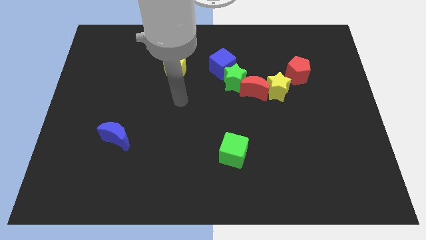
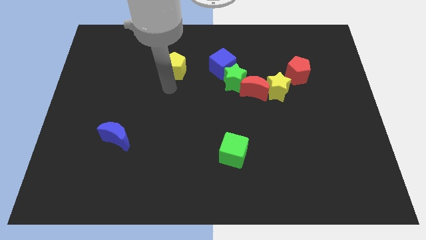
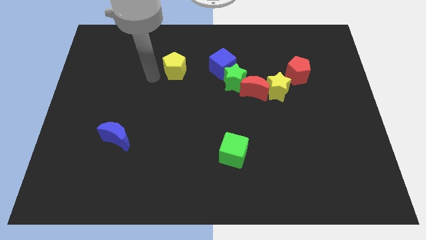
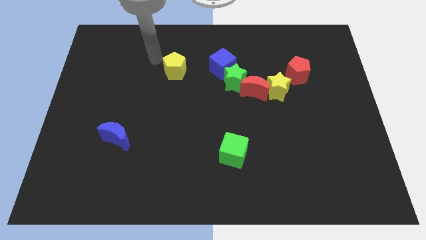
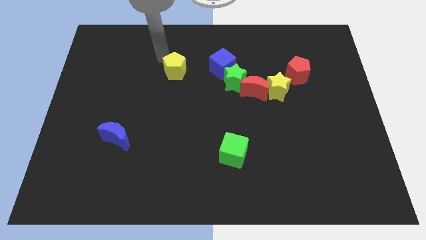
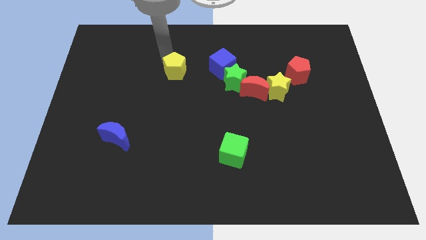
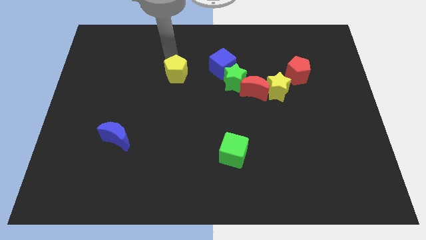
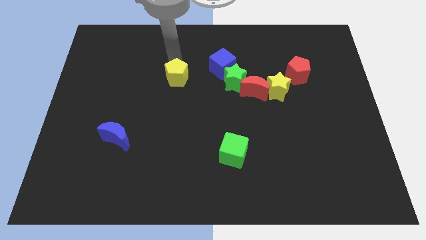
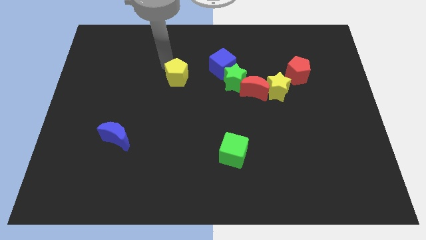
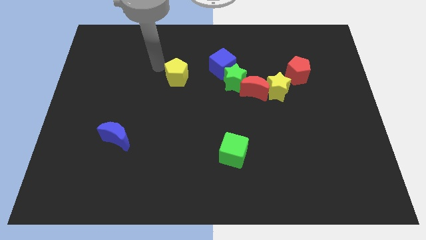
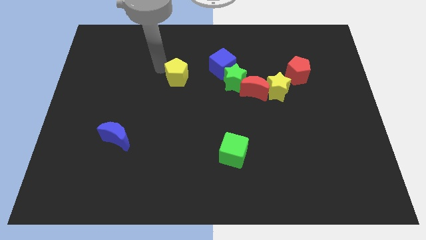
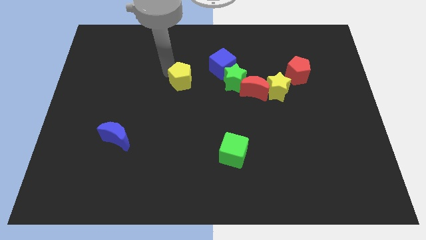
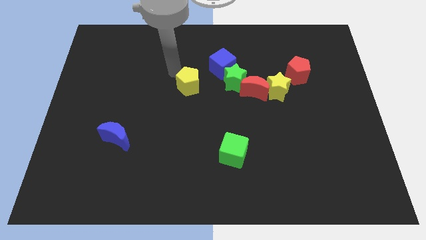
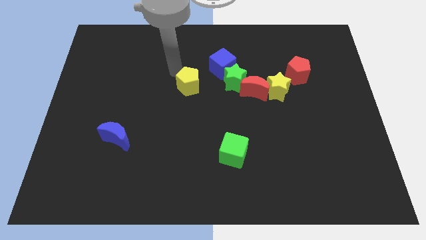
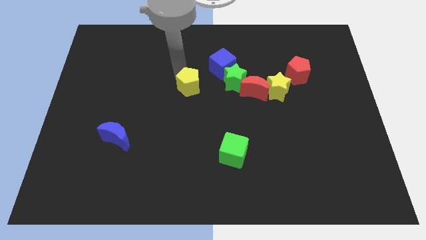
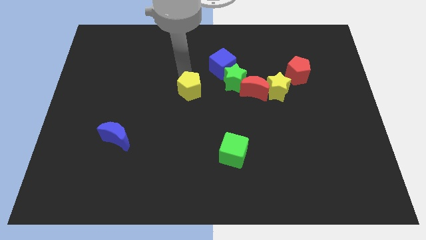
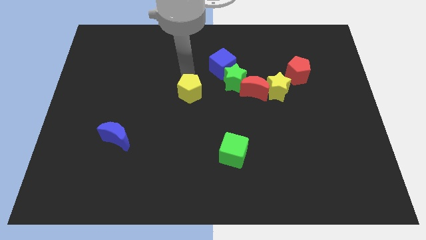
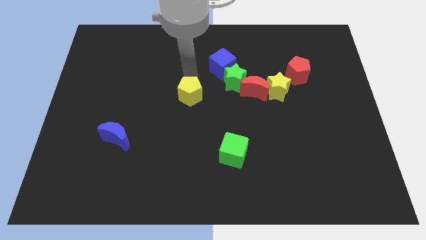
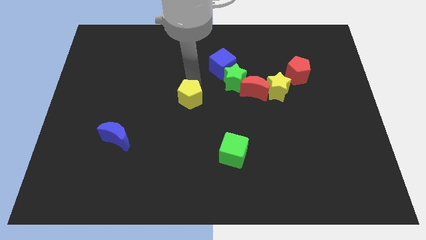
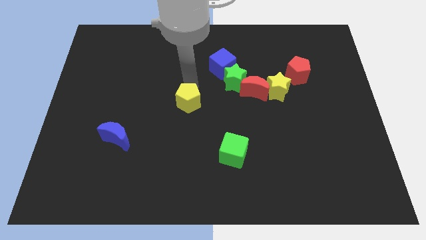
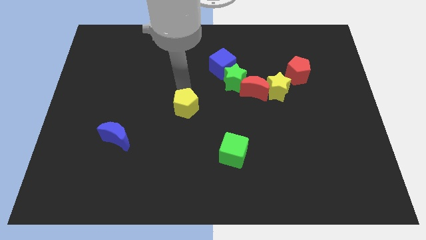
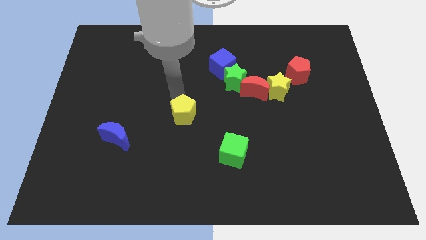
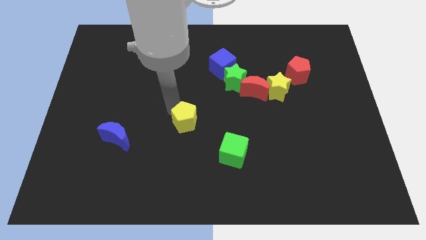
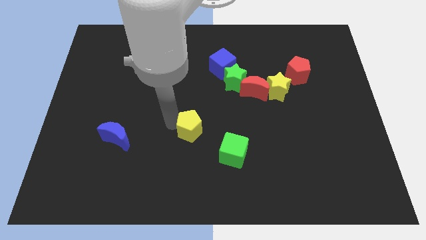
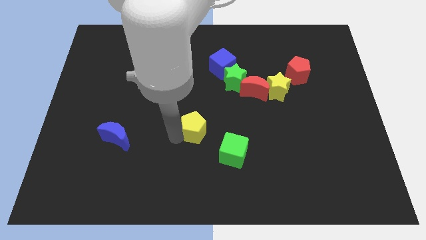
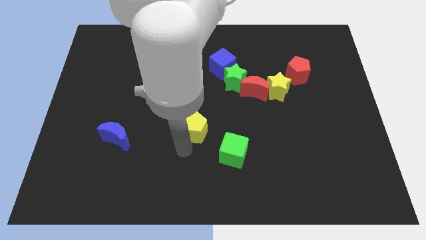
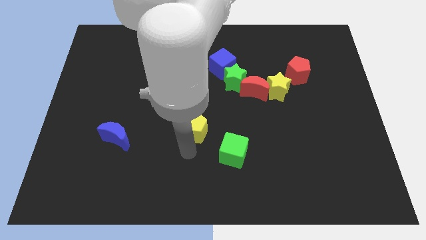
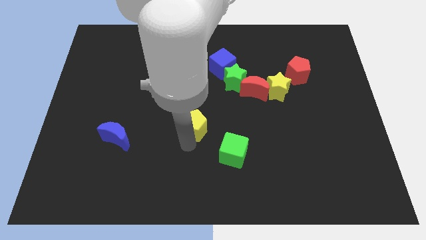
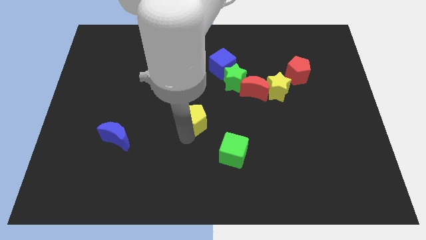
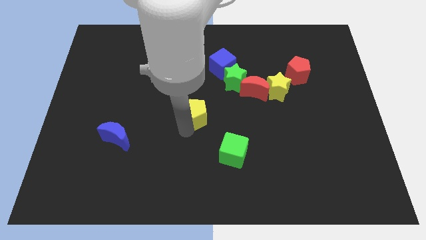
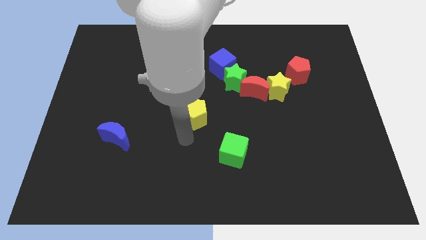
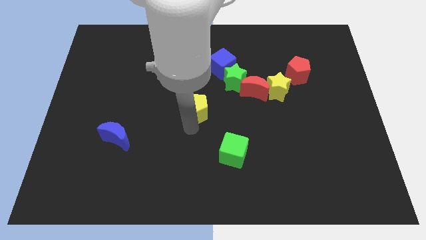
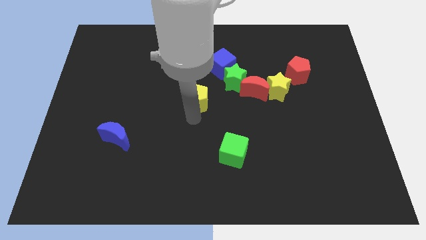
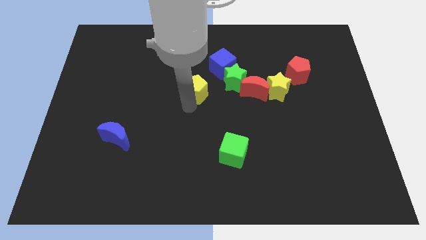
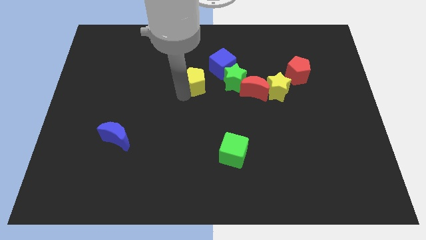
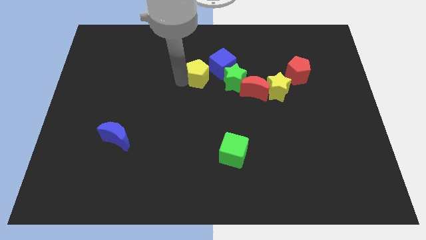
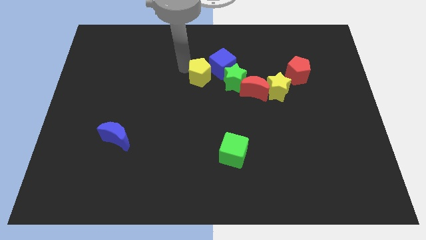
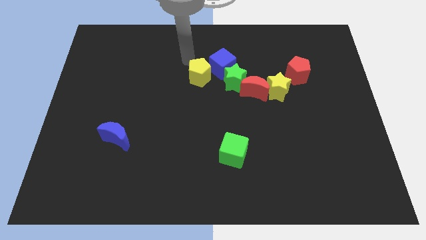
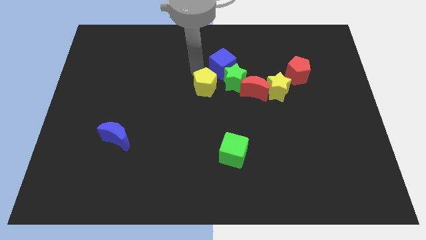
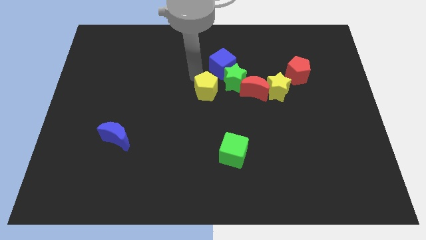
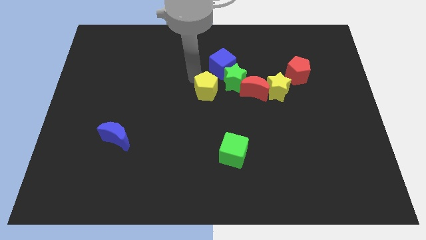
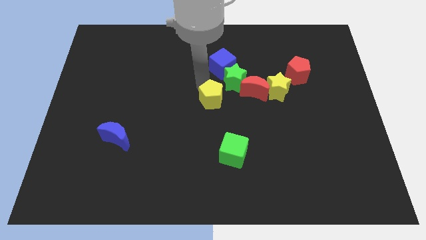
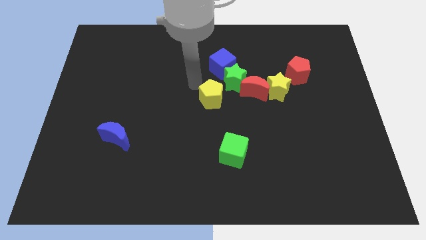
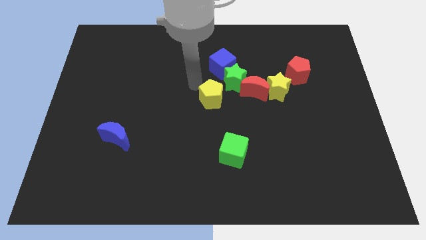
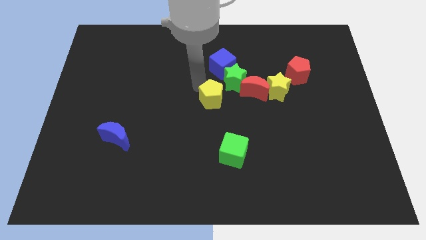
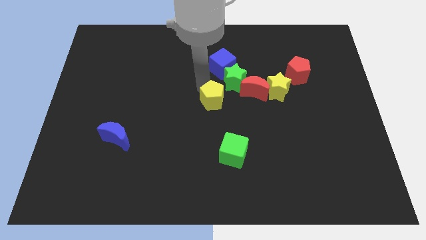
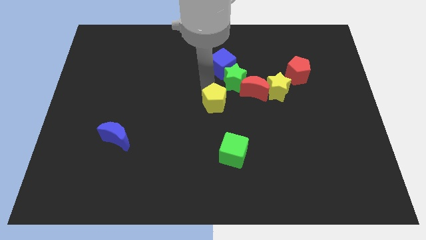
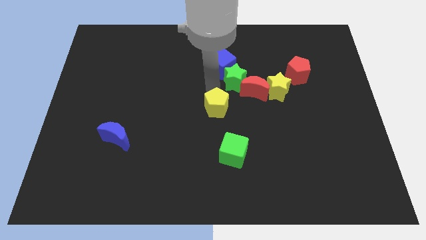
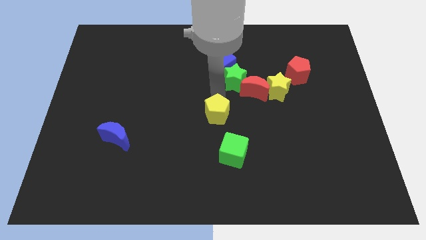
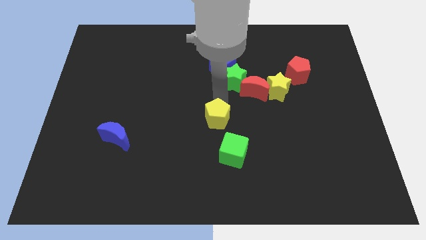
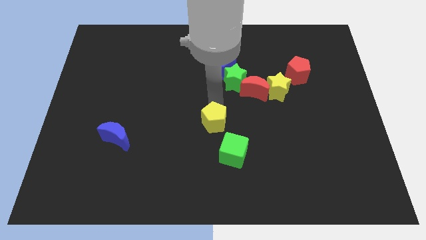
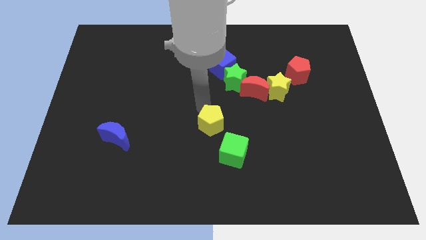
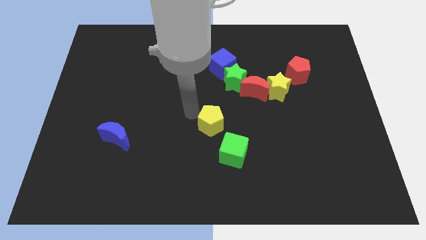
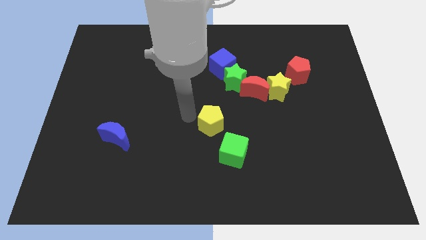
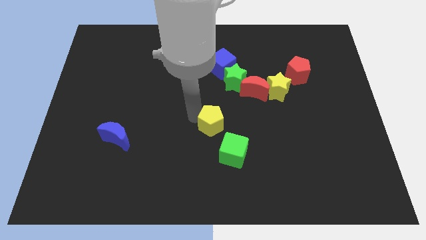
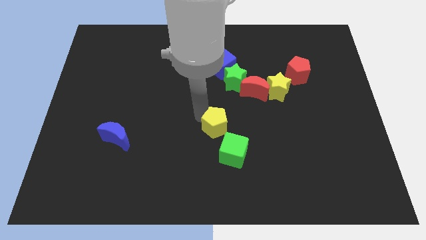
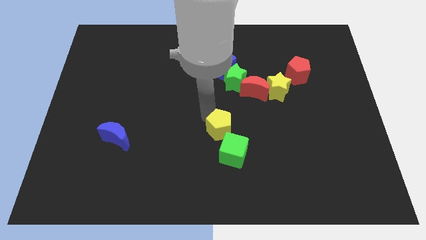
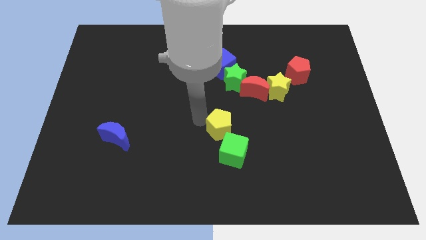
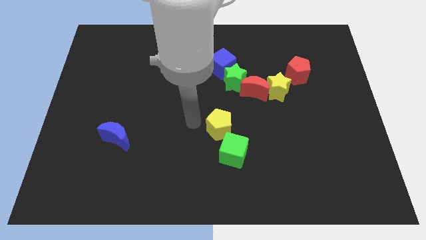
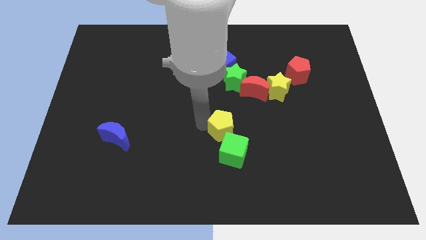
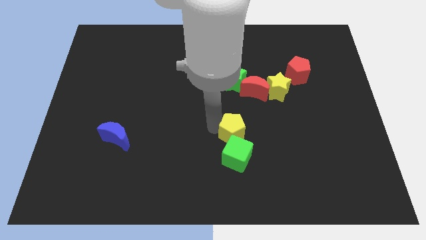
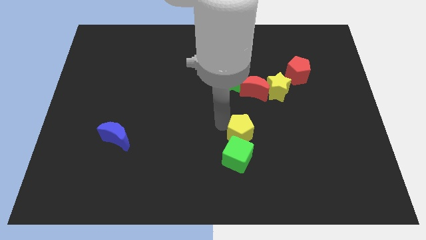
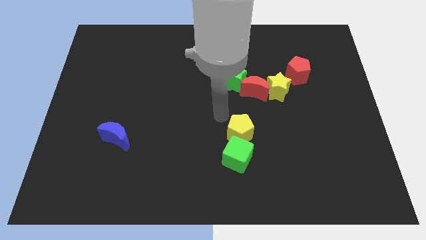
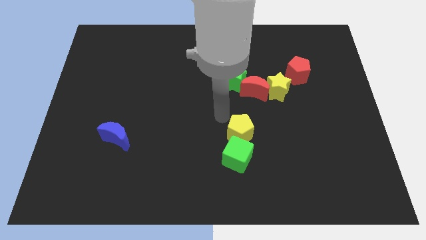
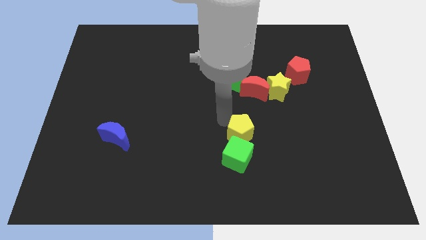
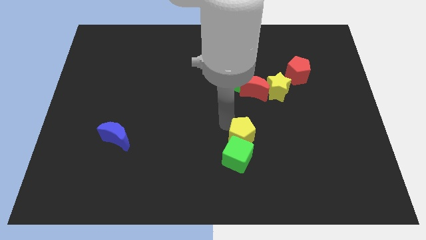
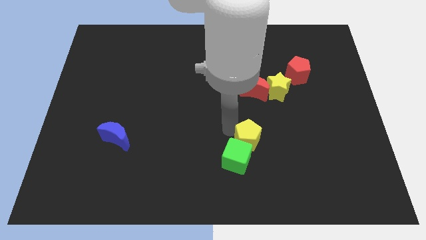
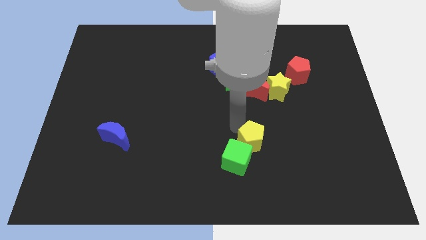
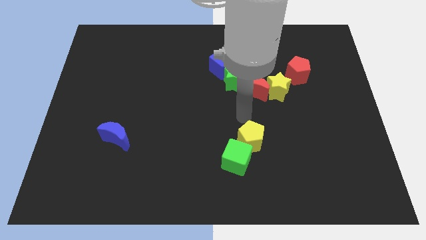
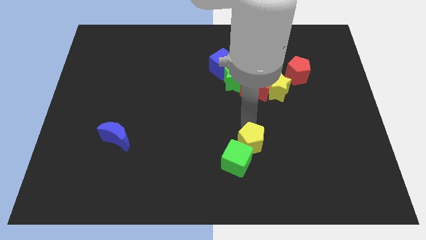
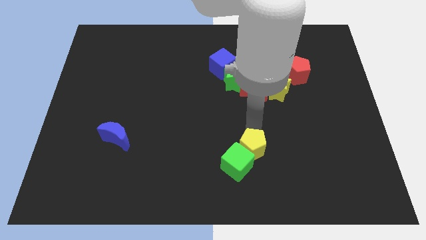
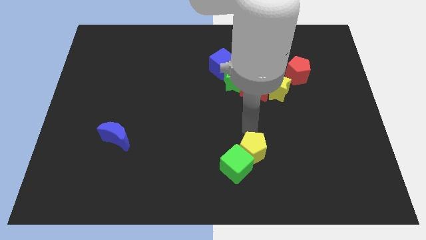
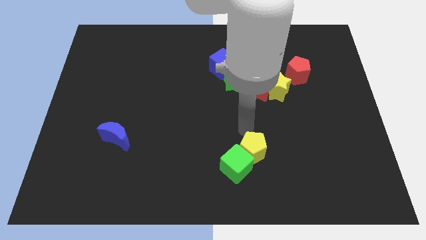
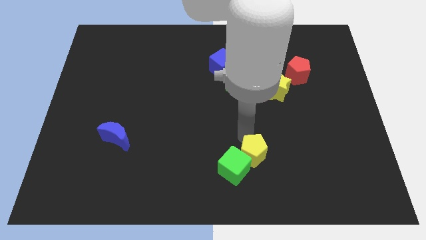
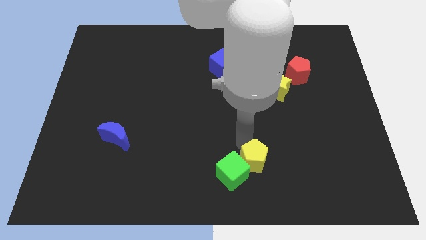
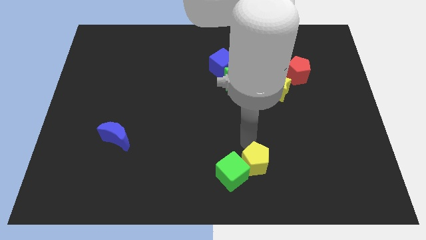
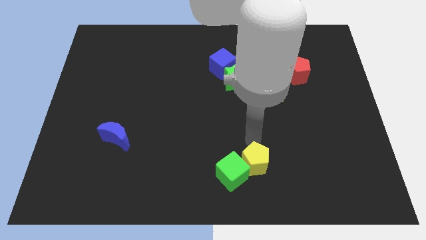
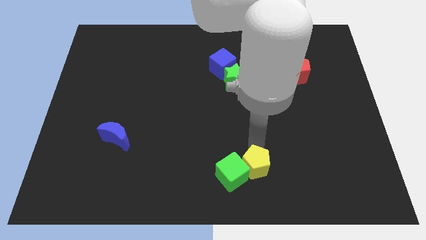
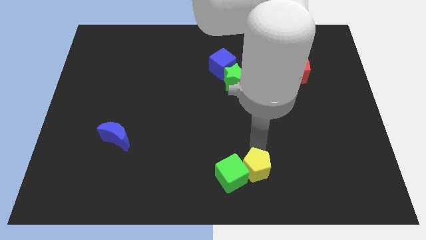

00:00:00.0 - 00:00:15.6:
put the yellow pentagon diagonally down and to the right of the green cube
